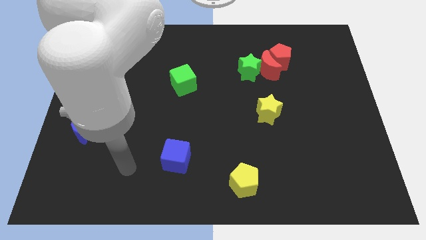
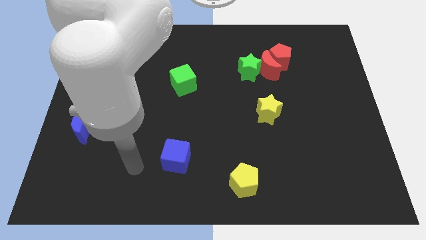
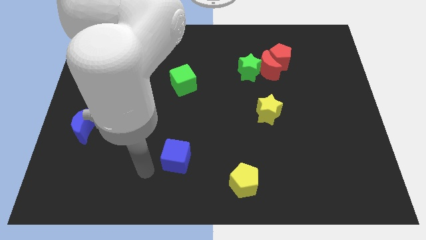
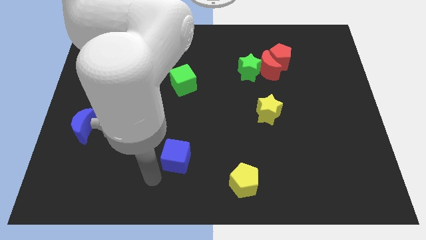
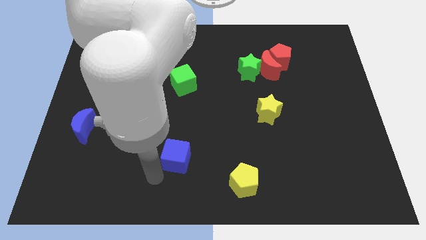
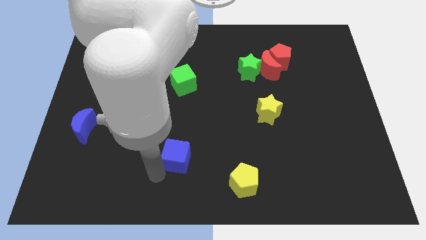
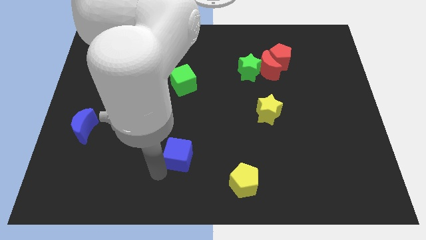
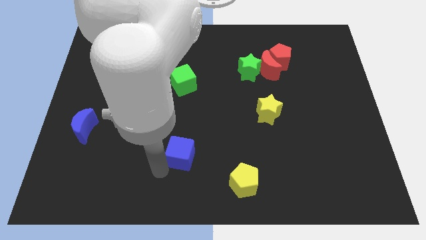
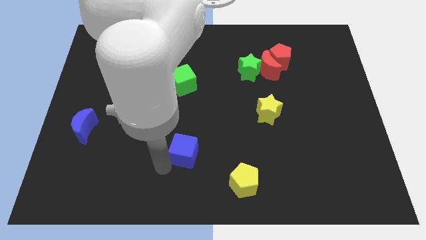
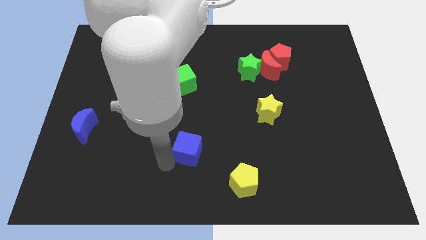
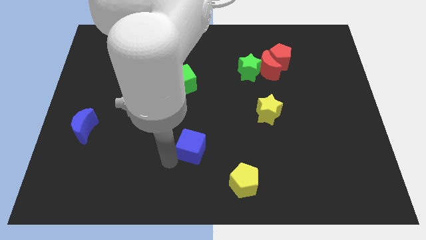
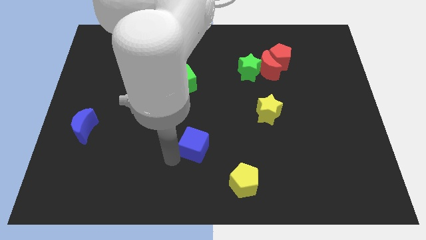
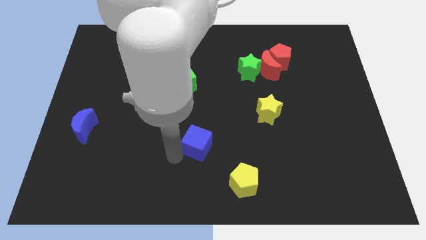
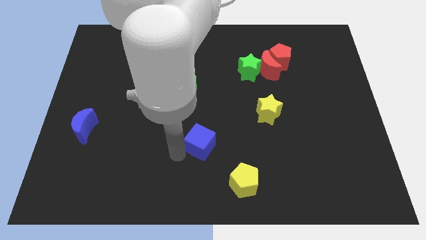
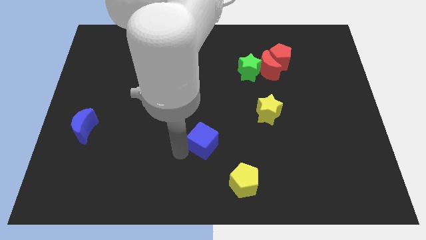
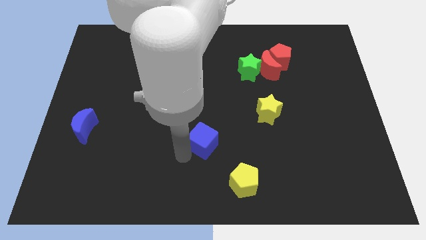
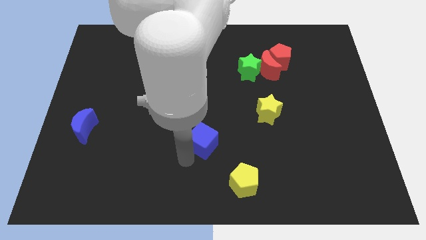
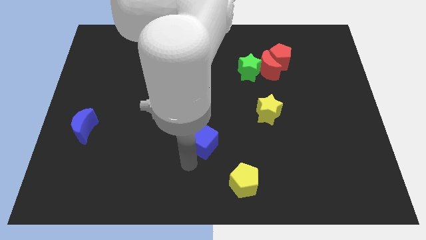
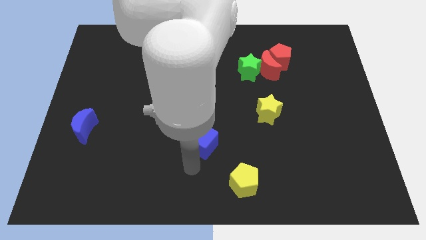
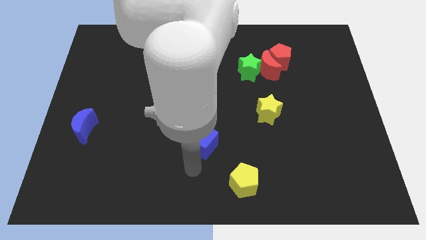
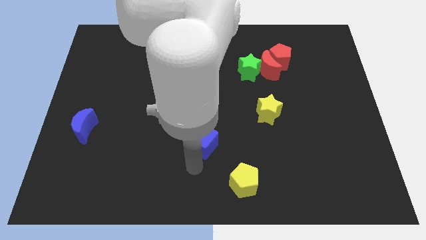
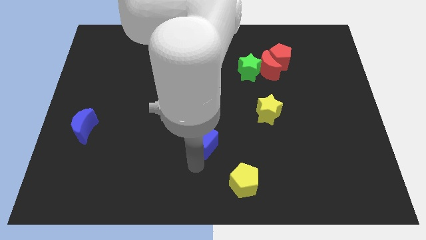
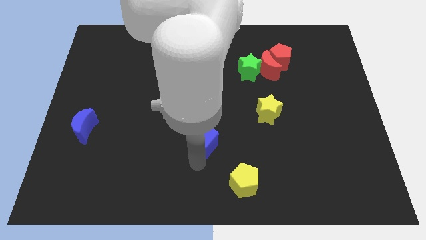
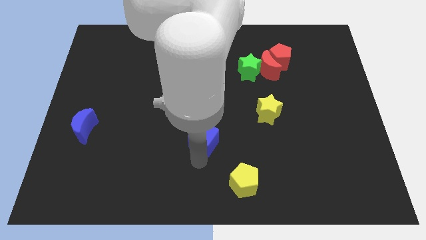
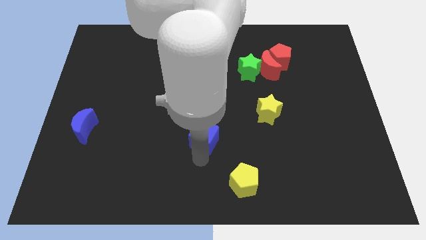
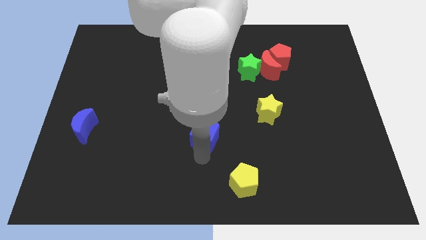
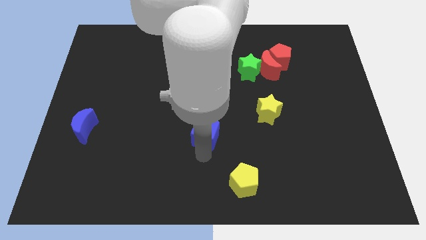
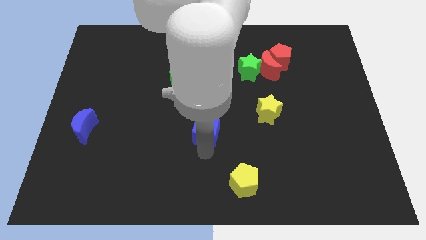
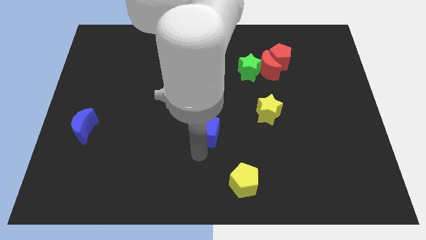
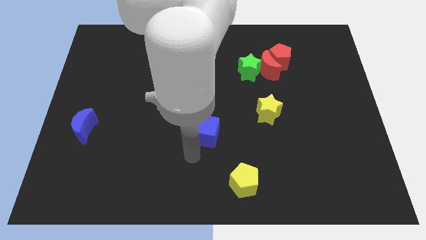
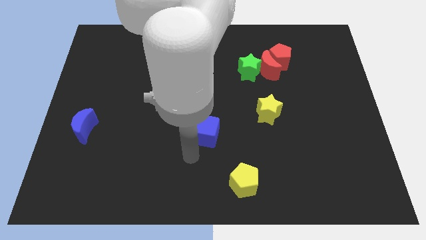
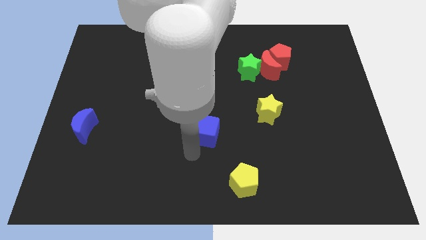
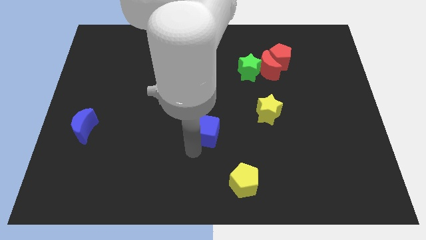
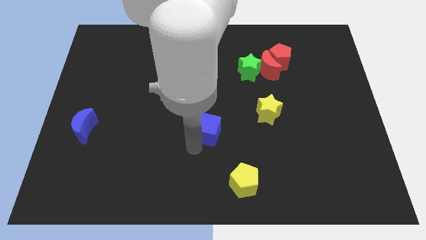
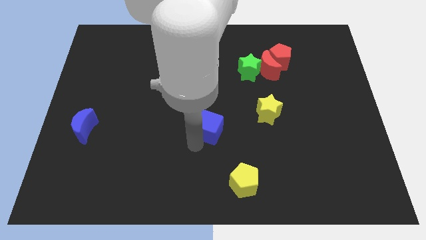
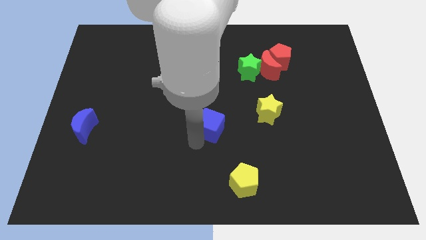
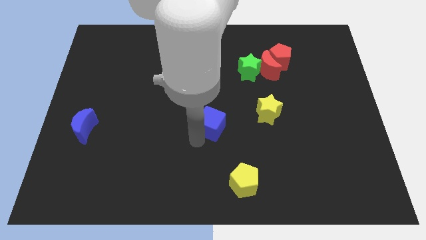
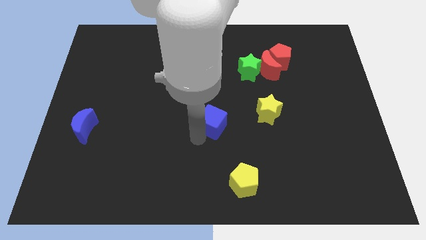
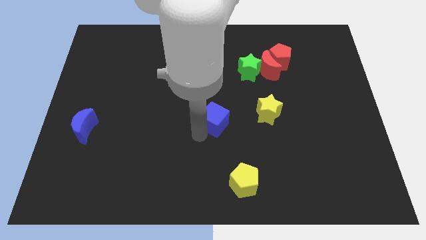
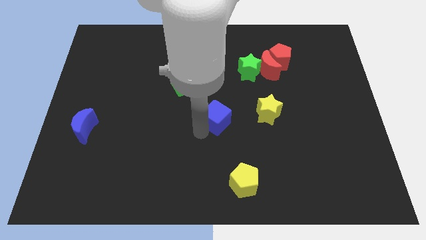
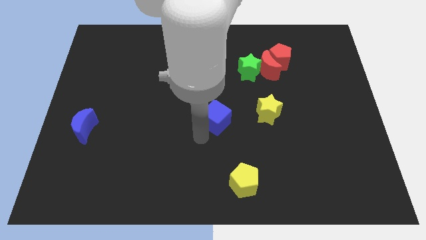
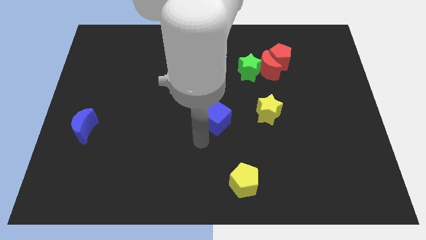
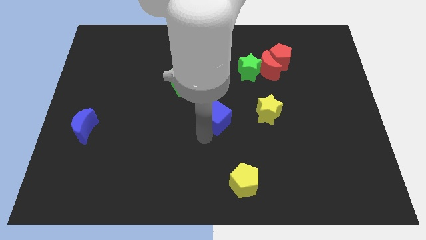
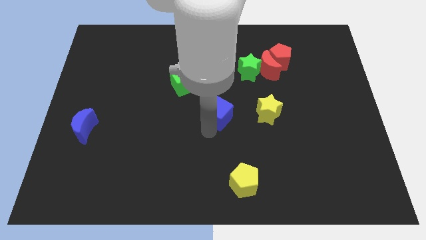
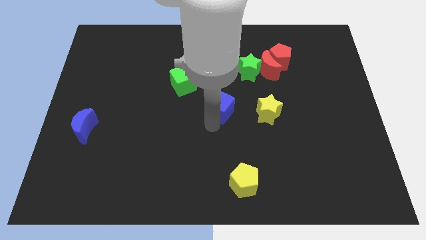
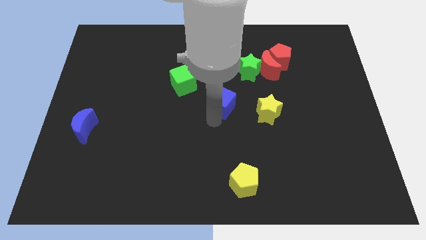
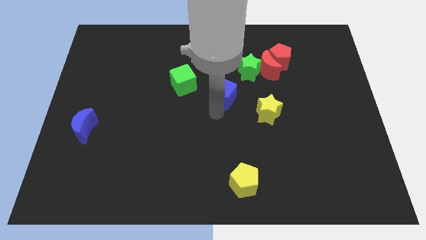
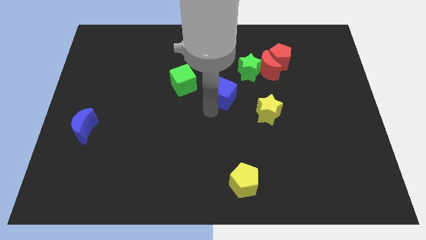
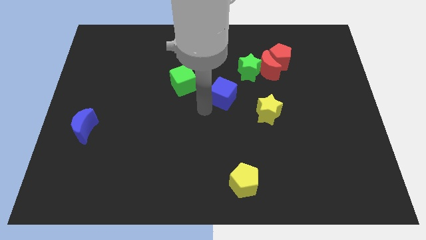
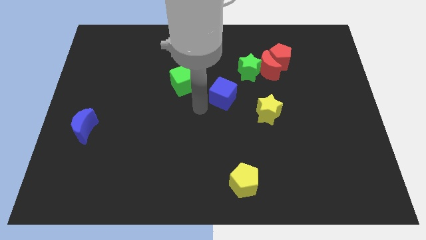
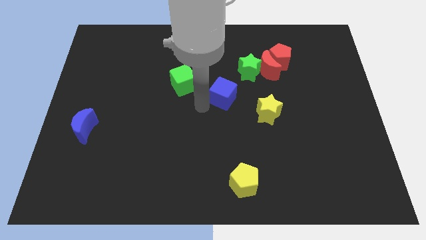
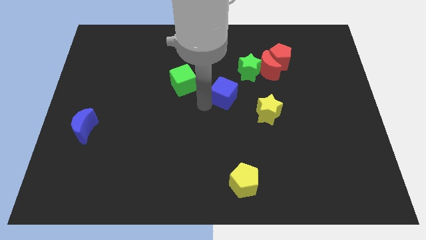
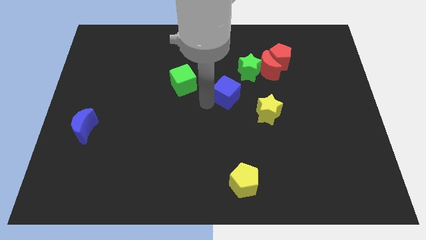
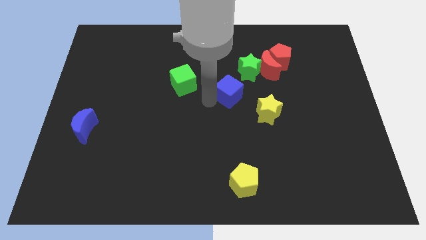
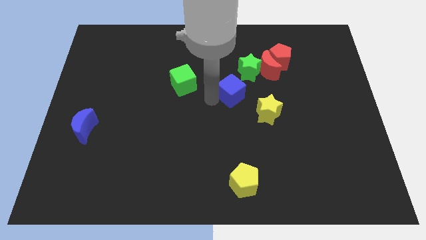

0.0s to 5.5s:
push the blue cube to the bottom left side of the red moon
